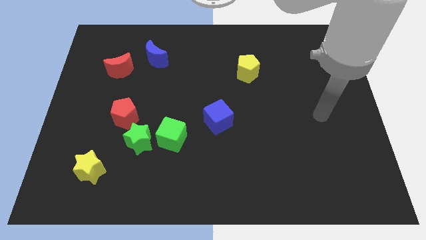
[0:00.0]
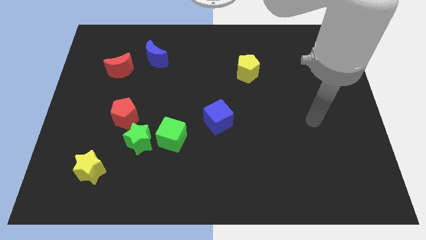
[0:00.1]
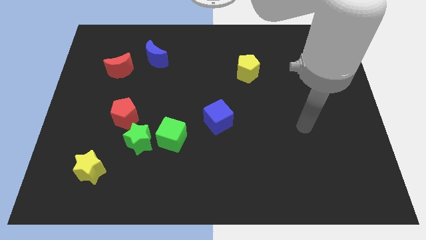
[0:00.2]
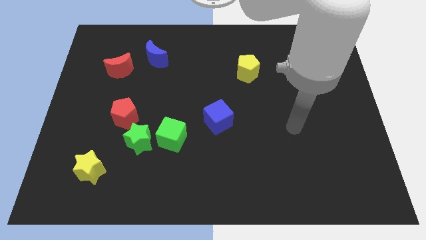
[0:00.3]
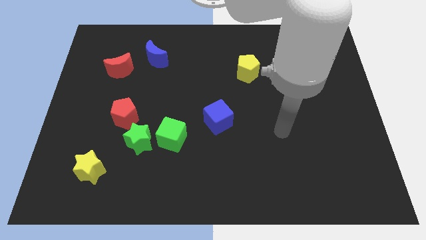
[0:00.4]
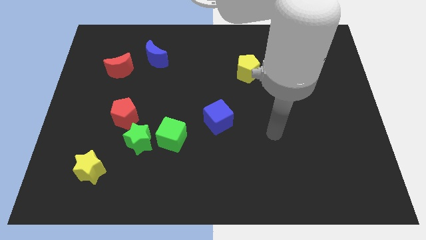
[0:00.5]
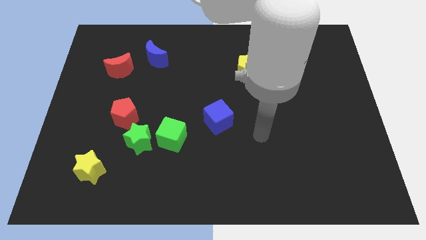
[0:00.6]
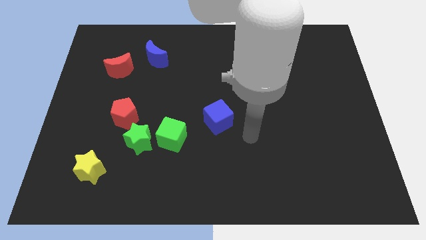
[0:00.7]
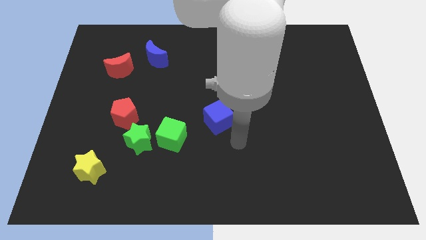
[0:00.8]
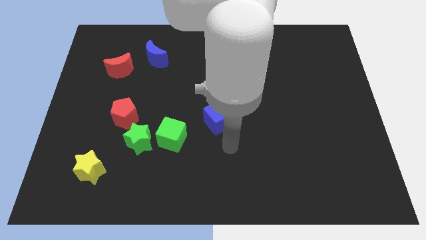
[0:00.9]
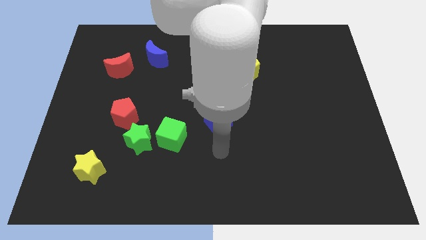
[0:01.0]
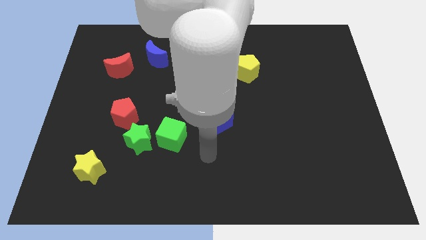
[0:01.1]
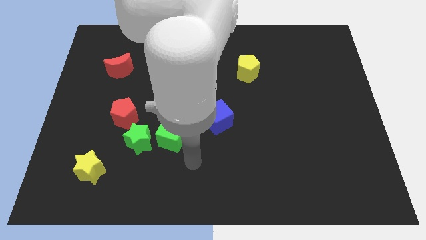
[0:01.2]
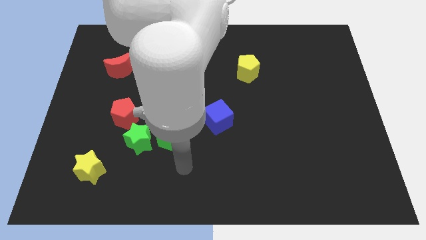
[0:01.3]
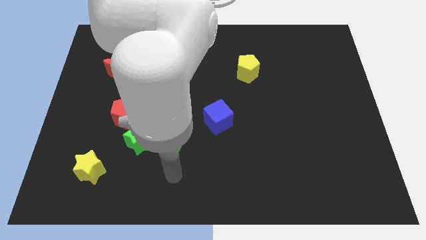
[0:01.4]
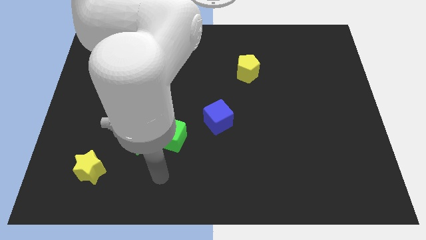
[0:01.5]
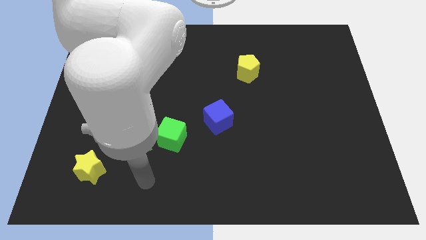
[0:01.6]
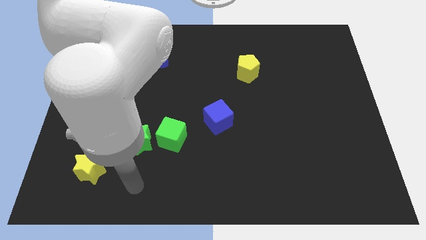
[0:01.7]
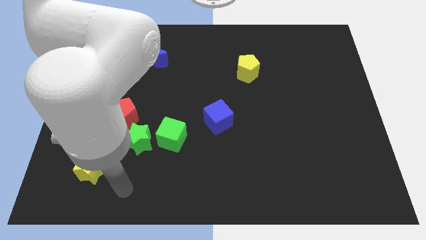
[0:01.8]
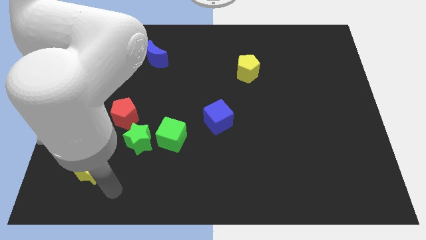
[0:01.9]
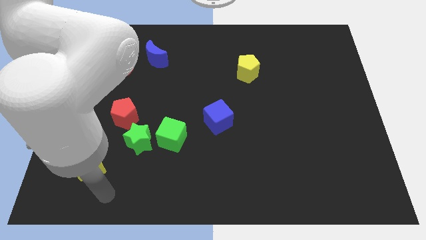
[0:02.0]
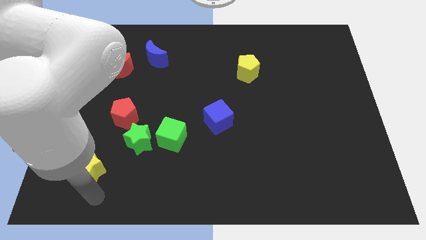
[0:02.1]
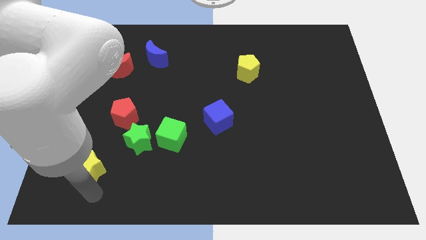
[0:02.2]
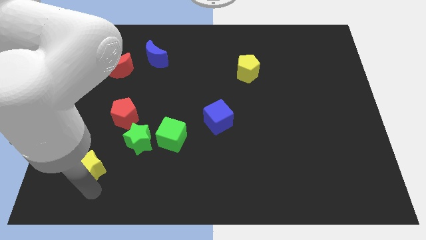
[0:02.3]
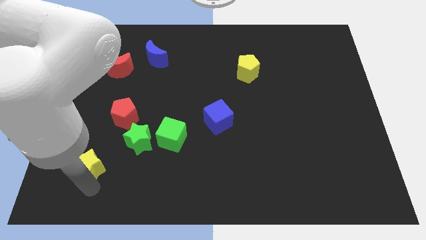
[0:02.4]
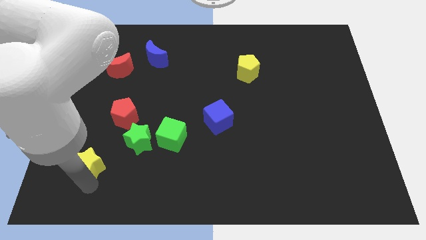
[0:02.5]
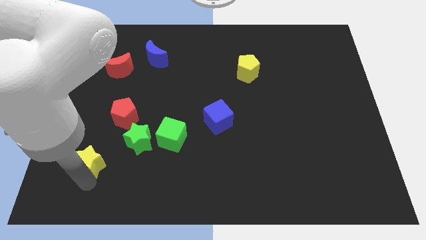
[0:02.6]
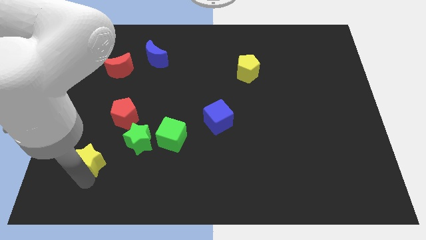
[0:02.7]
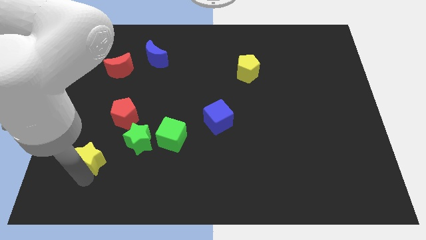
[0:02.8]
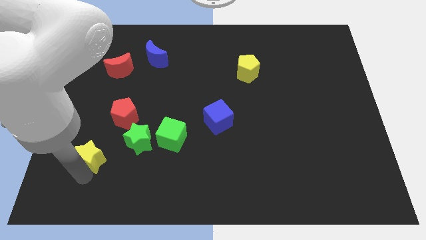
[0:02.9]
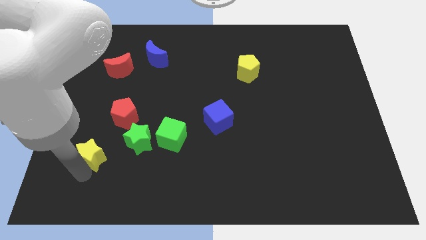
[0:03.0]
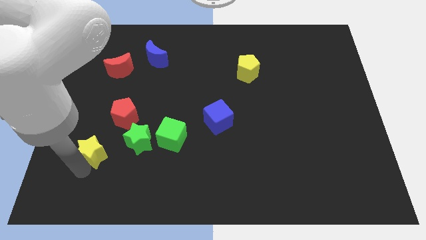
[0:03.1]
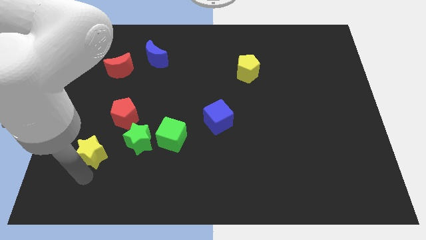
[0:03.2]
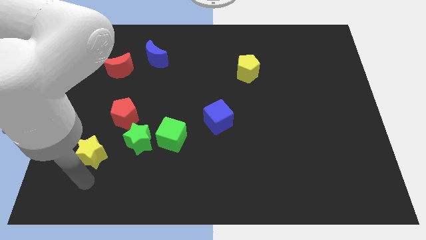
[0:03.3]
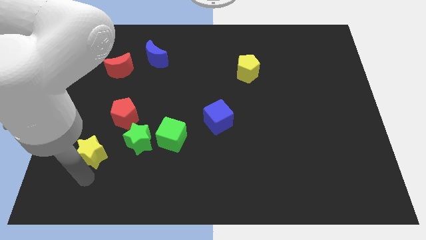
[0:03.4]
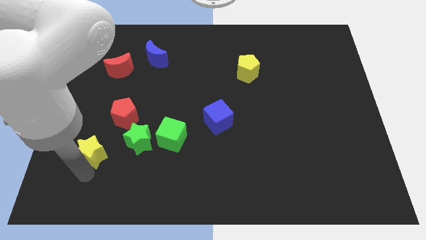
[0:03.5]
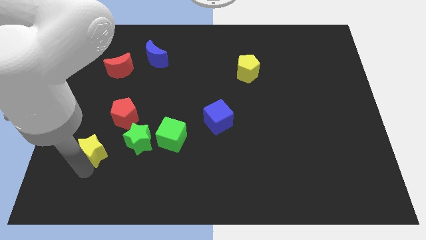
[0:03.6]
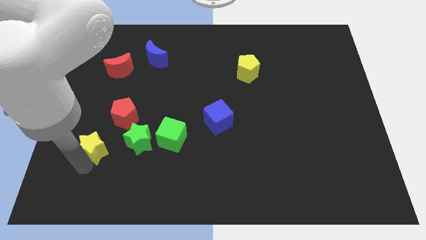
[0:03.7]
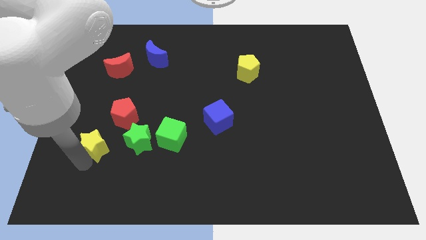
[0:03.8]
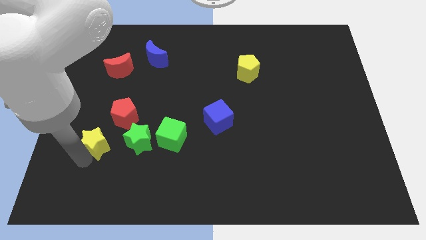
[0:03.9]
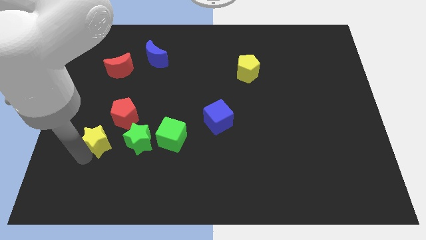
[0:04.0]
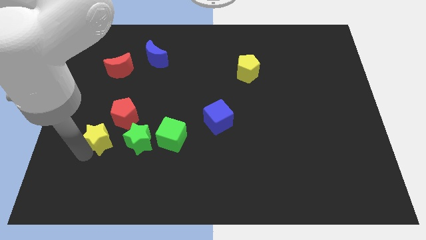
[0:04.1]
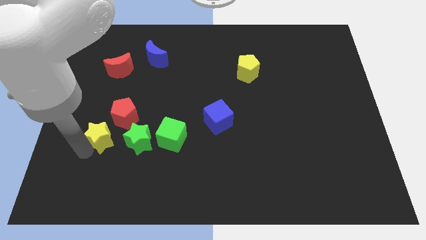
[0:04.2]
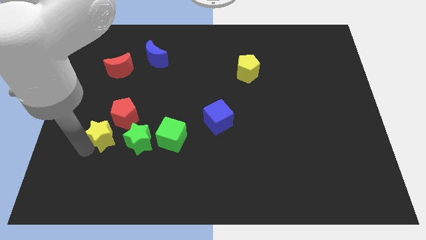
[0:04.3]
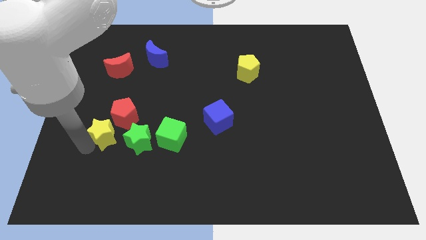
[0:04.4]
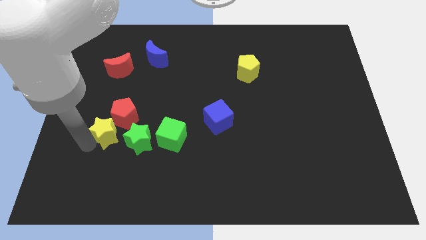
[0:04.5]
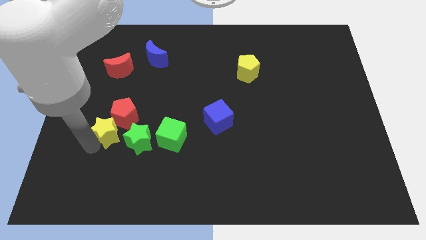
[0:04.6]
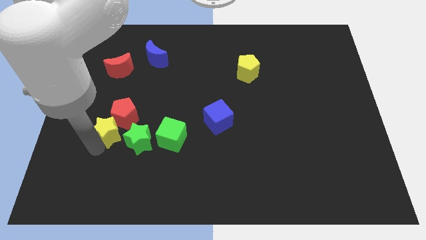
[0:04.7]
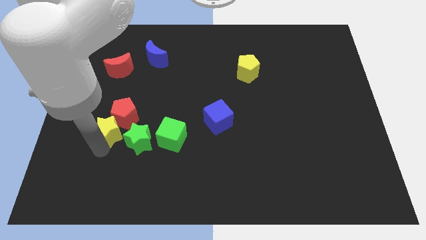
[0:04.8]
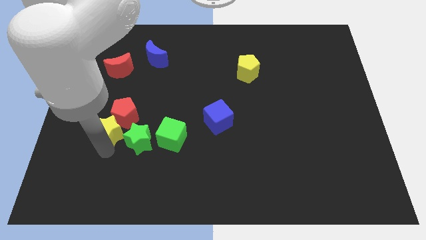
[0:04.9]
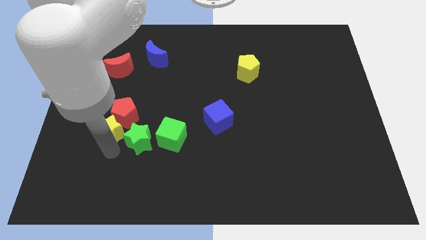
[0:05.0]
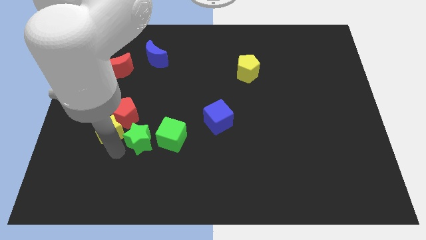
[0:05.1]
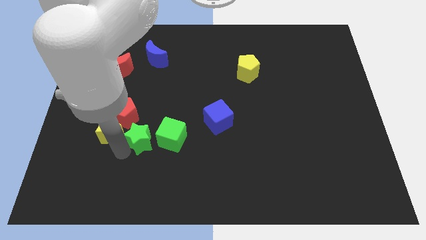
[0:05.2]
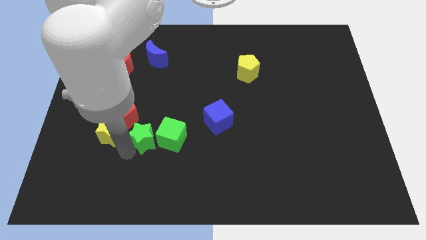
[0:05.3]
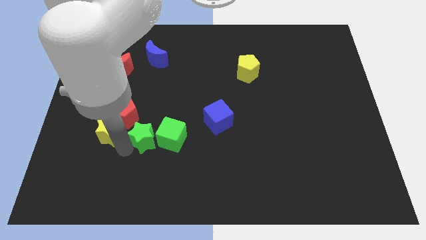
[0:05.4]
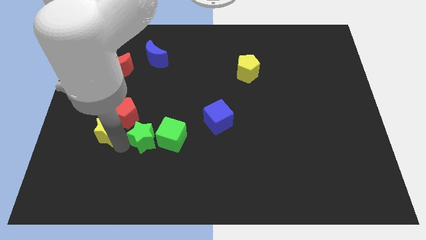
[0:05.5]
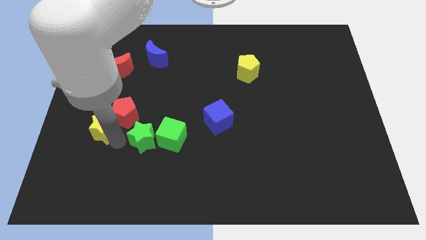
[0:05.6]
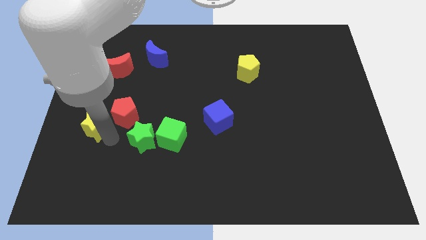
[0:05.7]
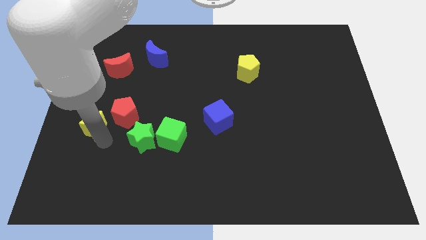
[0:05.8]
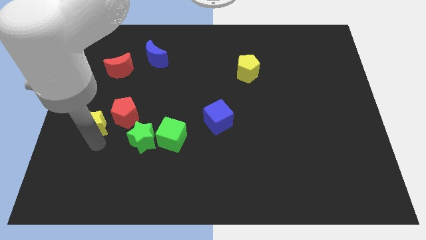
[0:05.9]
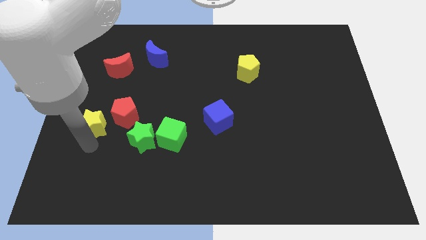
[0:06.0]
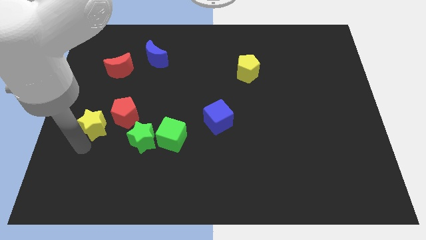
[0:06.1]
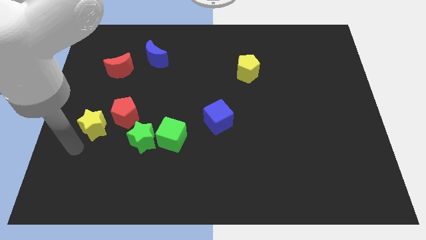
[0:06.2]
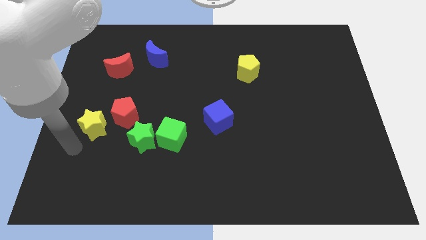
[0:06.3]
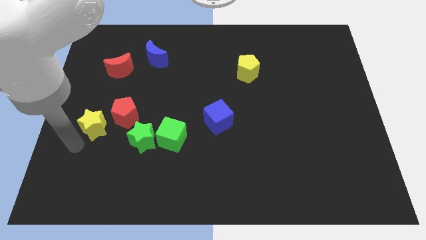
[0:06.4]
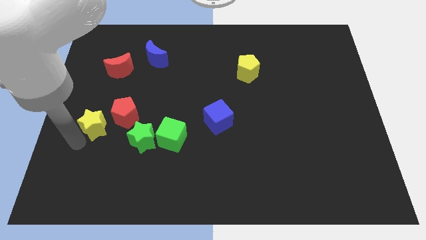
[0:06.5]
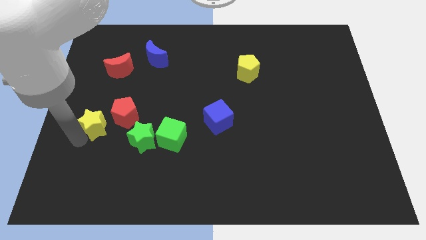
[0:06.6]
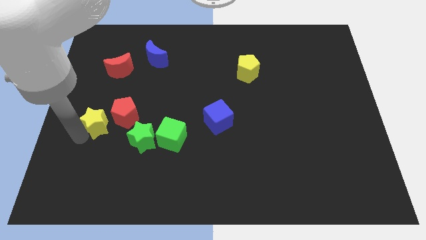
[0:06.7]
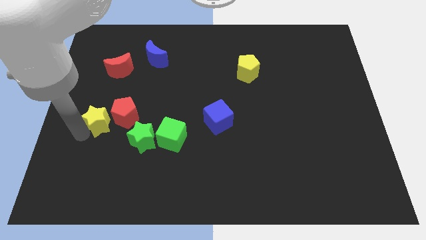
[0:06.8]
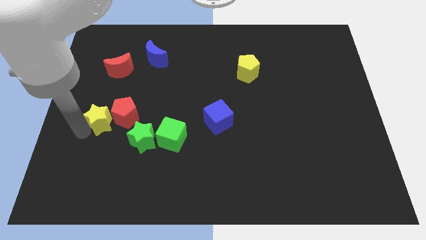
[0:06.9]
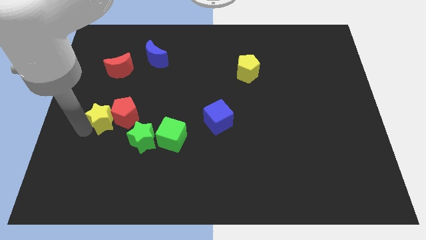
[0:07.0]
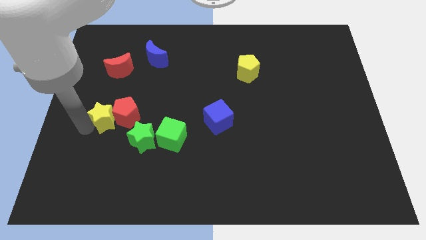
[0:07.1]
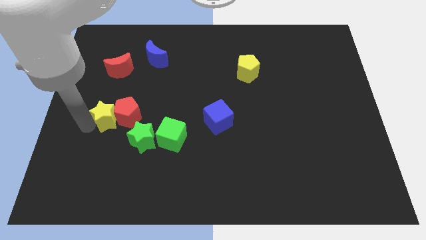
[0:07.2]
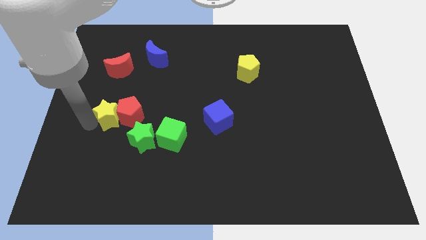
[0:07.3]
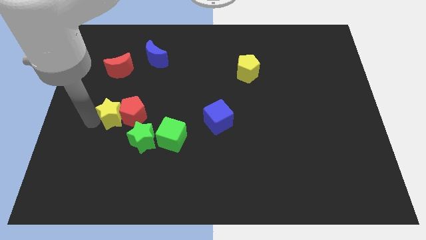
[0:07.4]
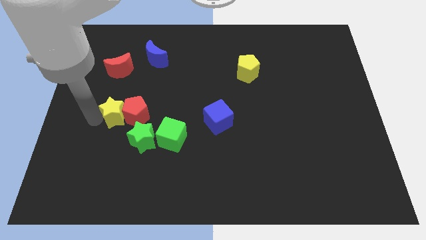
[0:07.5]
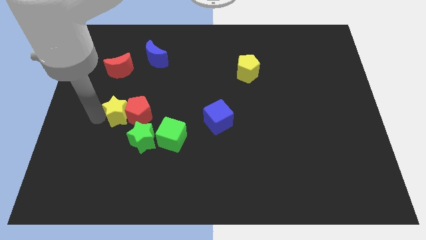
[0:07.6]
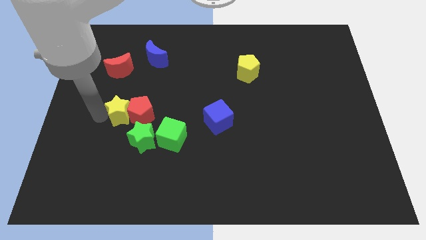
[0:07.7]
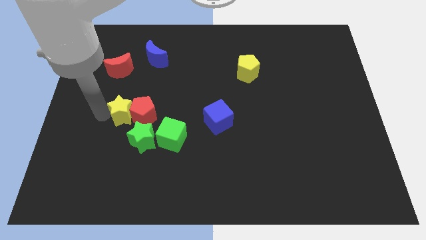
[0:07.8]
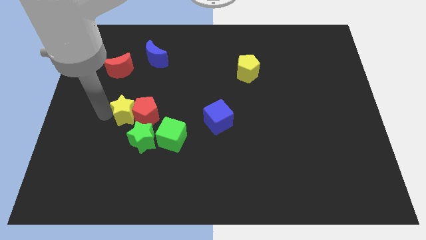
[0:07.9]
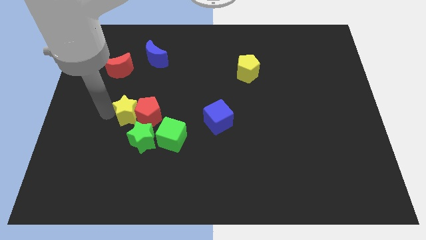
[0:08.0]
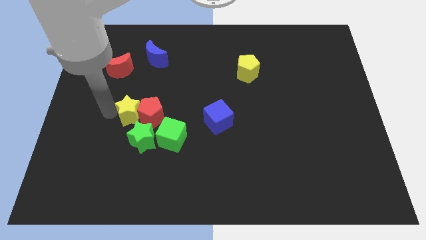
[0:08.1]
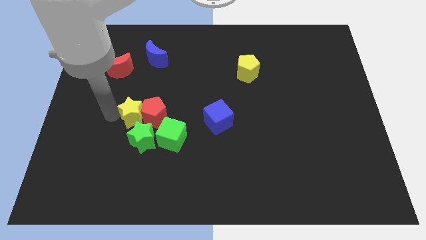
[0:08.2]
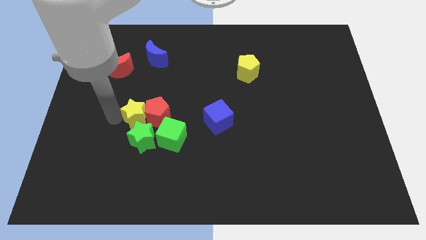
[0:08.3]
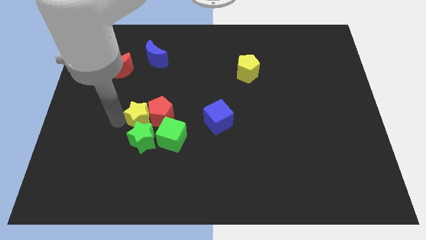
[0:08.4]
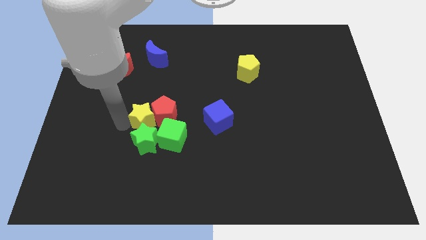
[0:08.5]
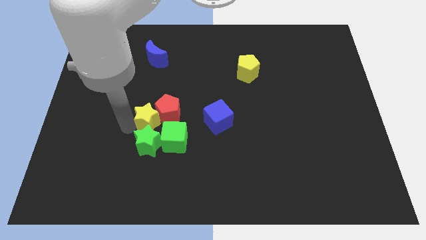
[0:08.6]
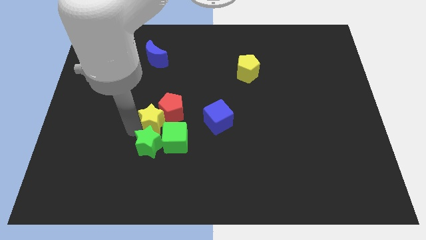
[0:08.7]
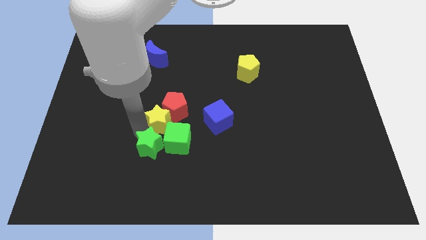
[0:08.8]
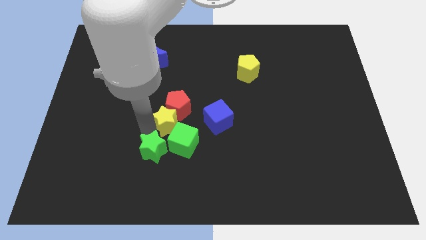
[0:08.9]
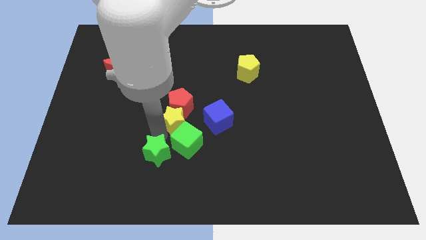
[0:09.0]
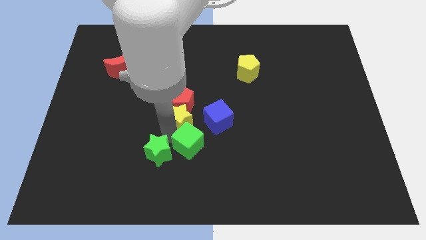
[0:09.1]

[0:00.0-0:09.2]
push the yellow star upwards and to the right diagonally
